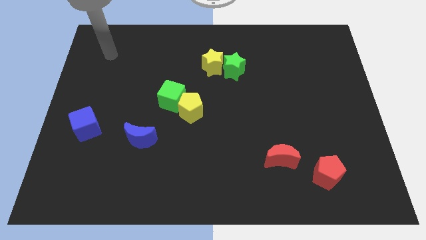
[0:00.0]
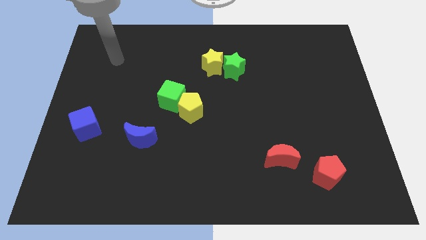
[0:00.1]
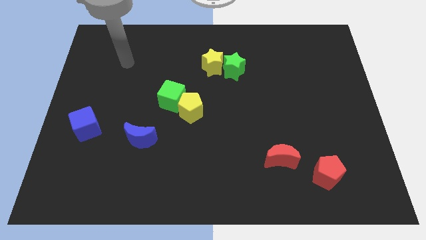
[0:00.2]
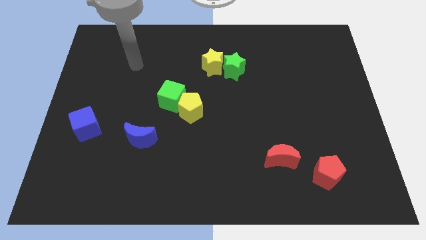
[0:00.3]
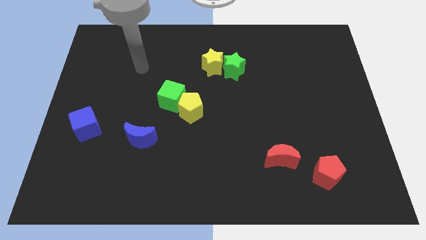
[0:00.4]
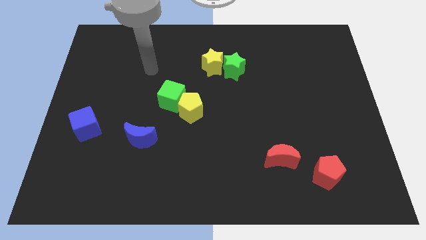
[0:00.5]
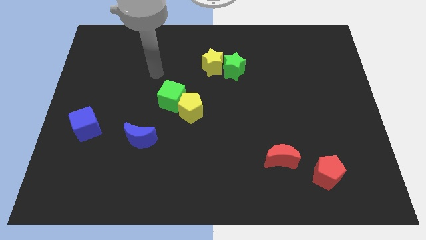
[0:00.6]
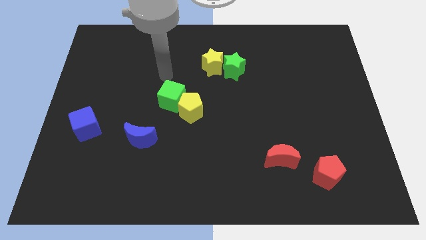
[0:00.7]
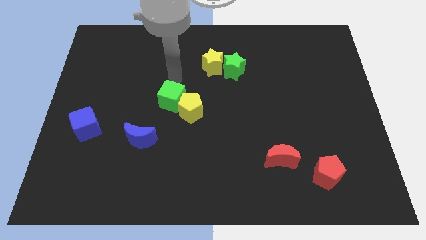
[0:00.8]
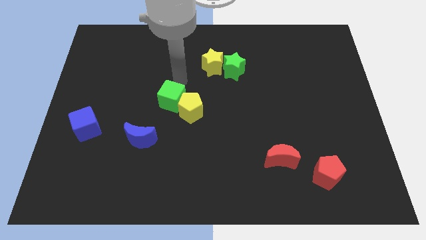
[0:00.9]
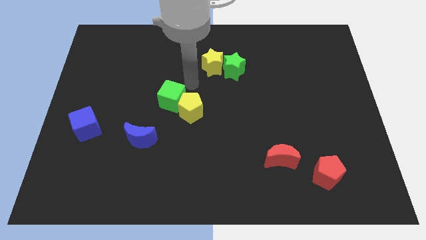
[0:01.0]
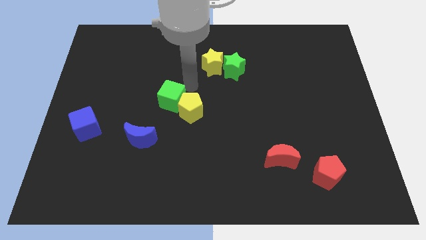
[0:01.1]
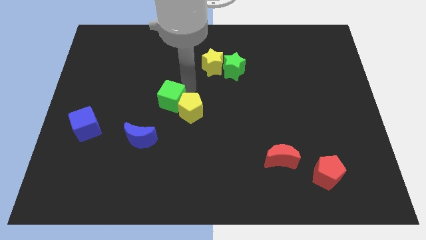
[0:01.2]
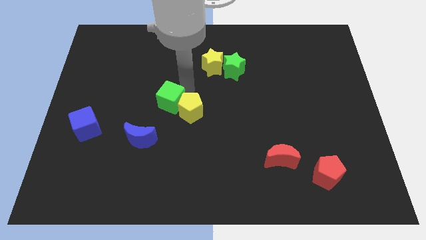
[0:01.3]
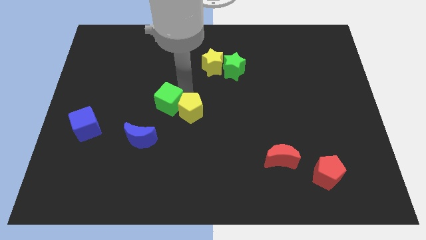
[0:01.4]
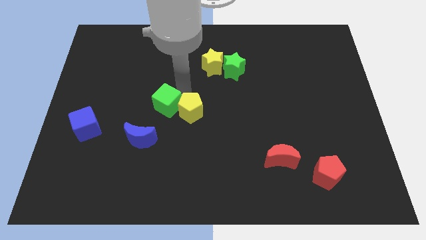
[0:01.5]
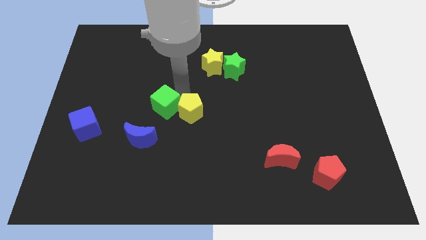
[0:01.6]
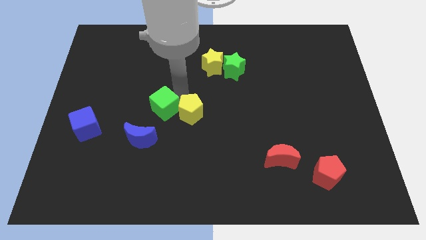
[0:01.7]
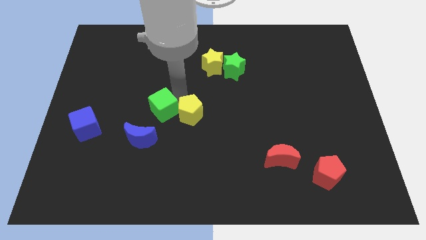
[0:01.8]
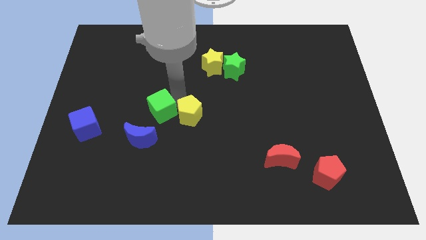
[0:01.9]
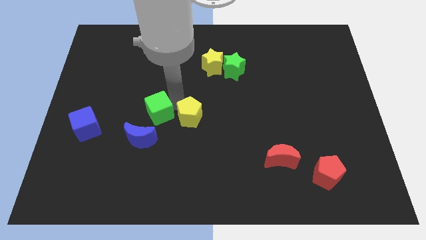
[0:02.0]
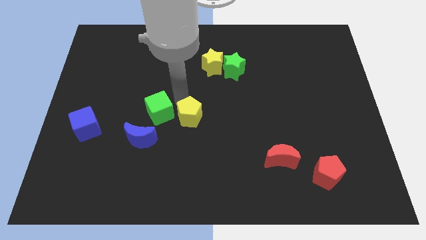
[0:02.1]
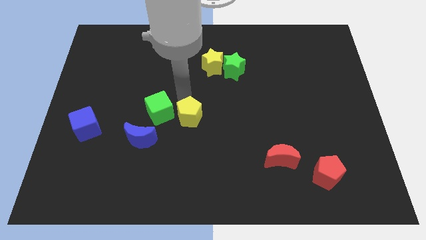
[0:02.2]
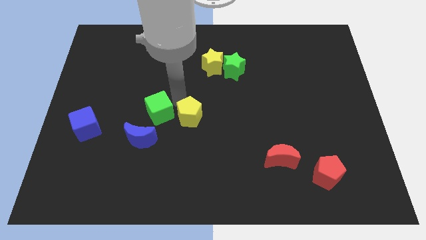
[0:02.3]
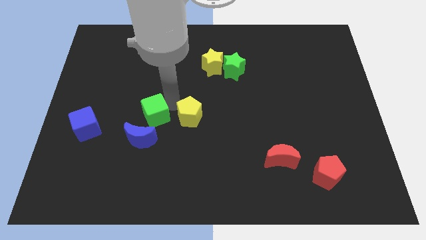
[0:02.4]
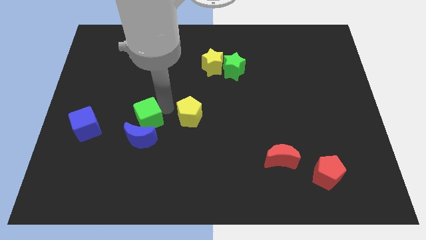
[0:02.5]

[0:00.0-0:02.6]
move the green cube a little down and left

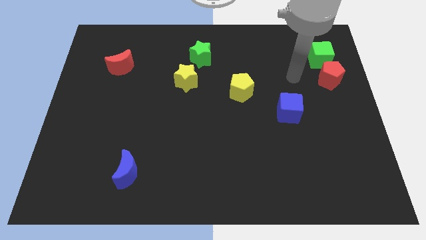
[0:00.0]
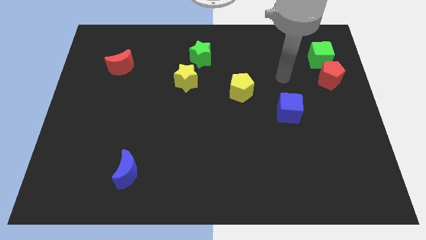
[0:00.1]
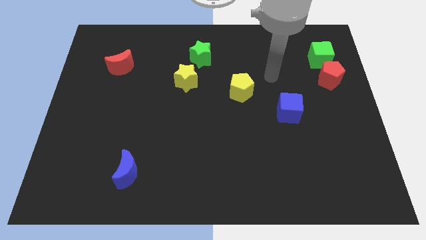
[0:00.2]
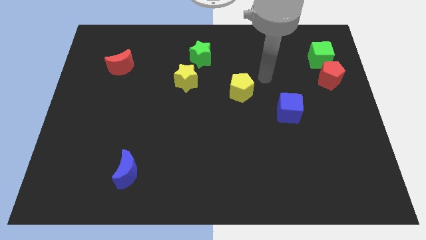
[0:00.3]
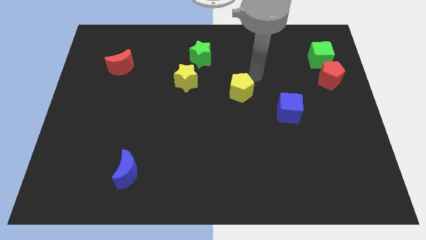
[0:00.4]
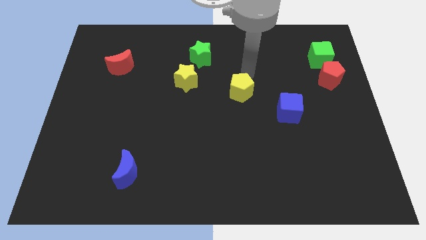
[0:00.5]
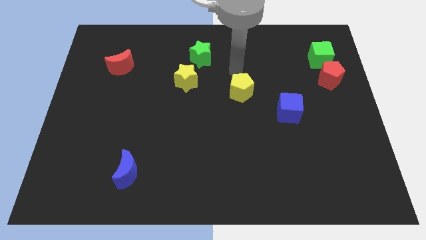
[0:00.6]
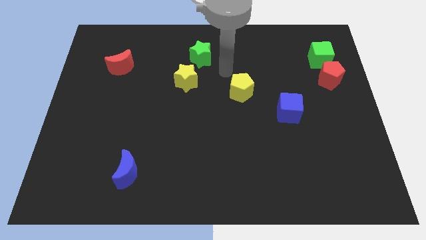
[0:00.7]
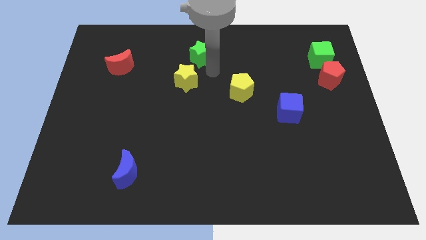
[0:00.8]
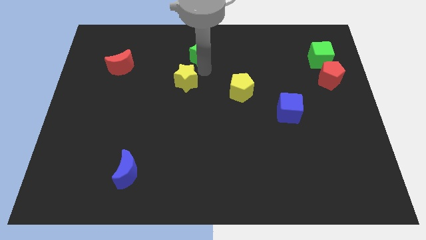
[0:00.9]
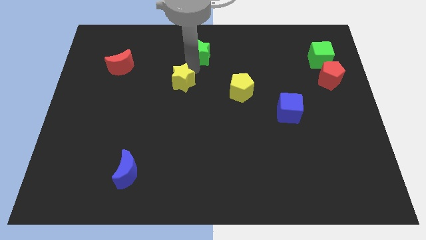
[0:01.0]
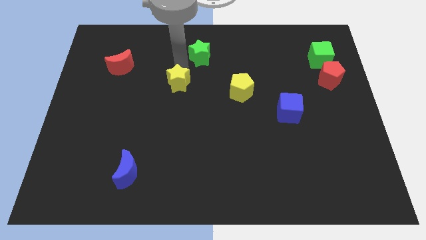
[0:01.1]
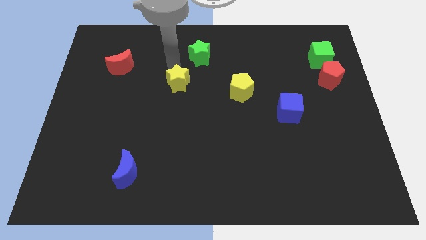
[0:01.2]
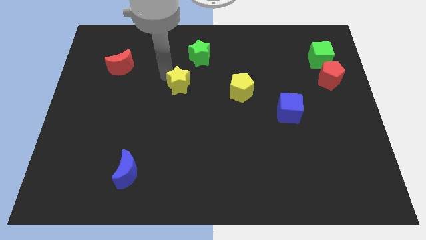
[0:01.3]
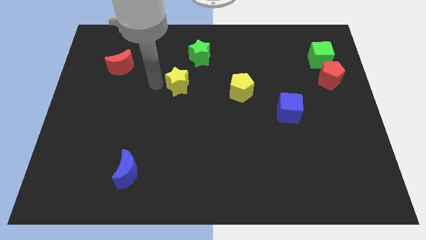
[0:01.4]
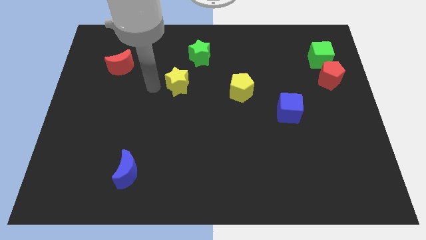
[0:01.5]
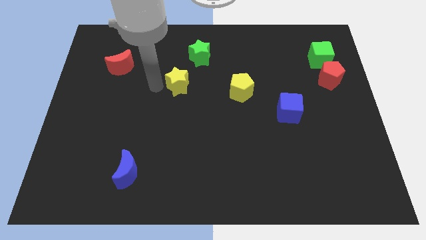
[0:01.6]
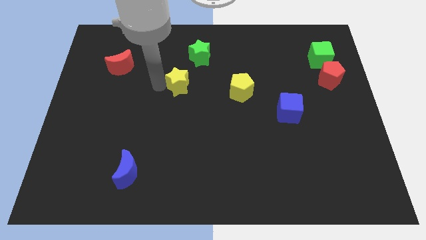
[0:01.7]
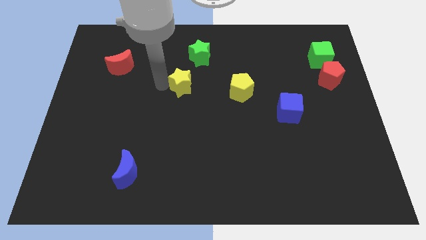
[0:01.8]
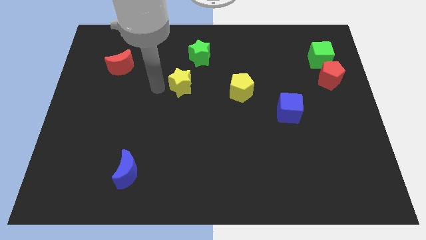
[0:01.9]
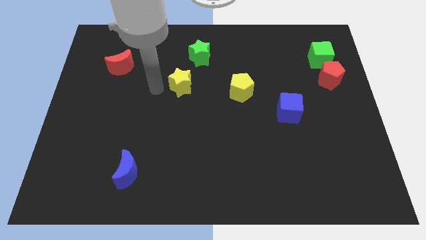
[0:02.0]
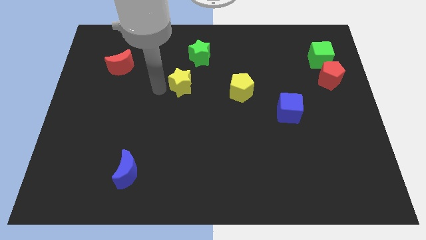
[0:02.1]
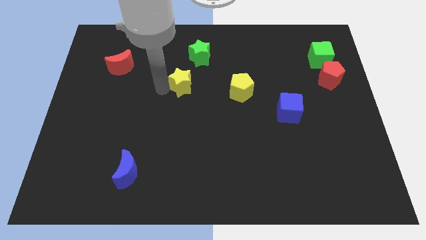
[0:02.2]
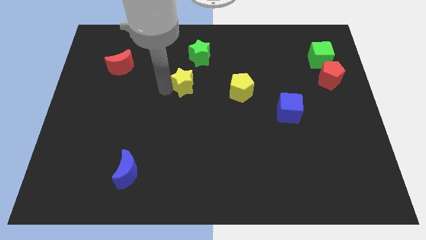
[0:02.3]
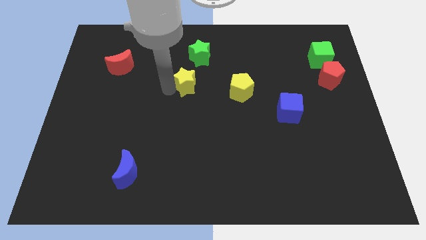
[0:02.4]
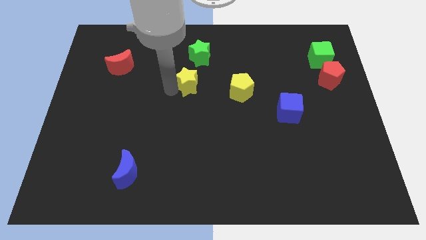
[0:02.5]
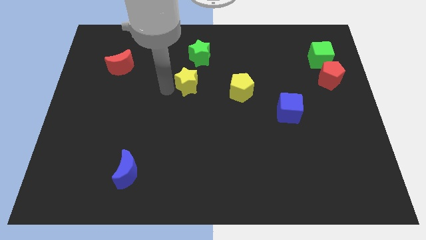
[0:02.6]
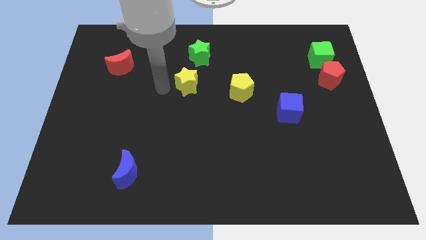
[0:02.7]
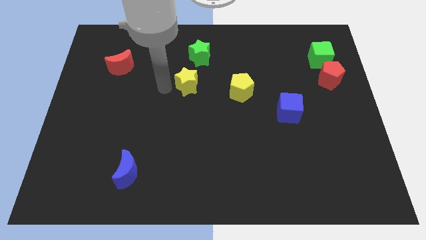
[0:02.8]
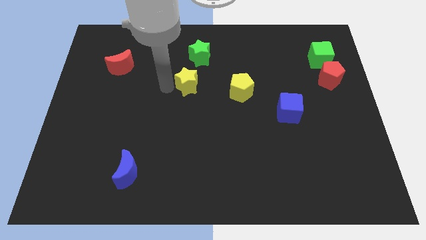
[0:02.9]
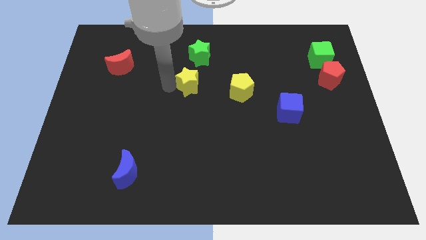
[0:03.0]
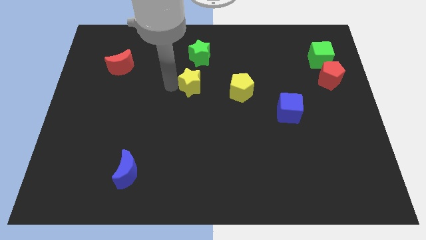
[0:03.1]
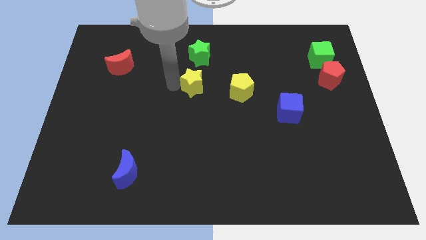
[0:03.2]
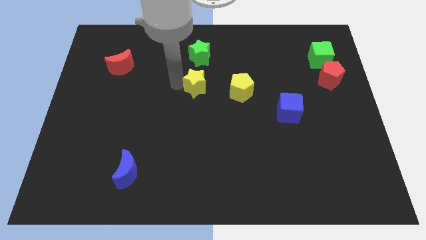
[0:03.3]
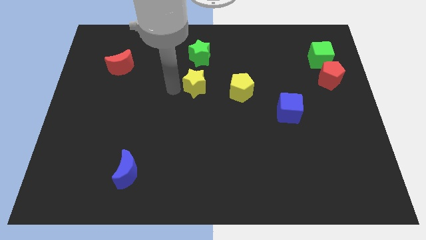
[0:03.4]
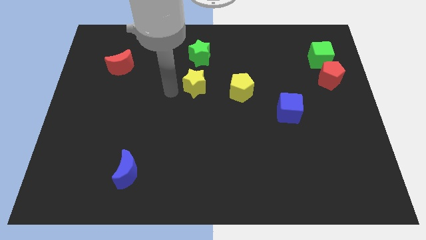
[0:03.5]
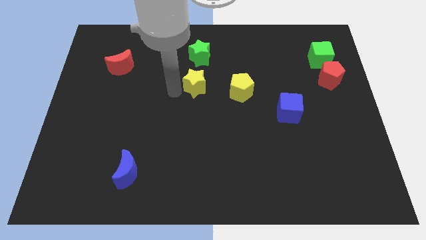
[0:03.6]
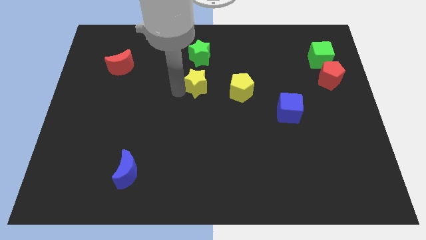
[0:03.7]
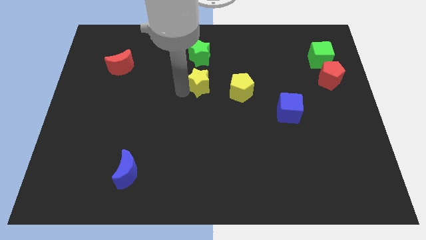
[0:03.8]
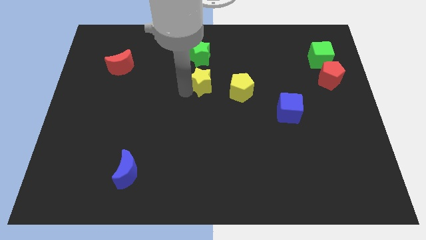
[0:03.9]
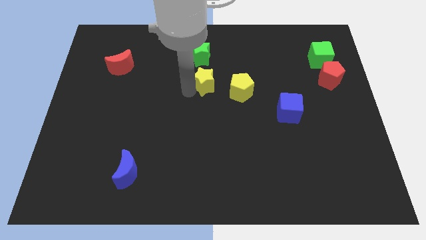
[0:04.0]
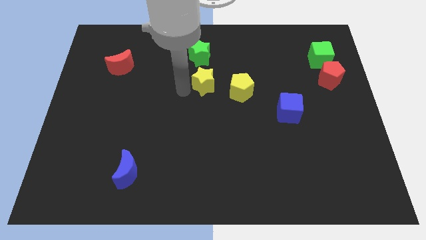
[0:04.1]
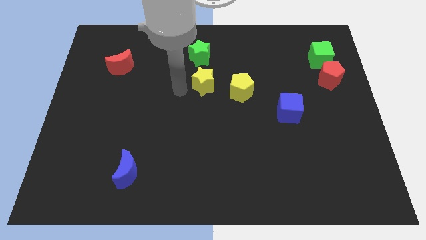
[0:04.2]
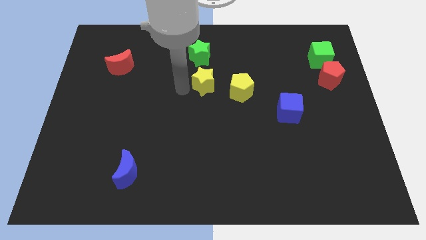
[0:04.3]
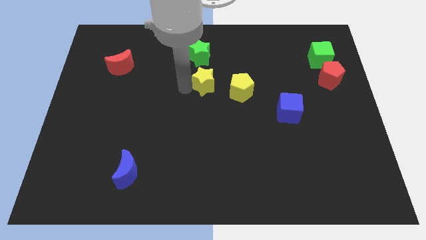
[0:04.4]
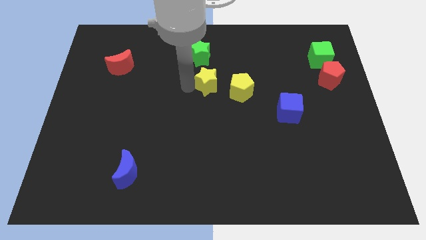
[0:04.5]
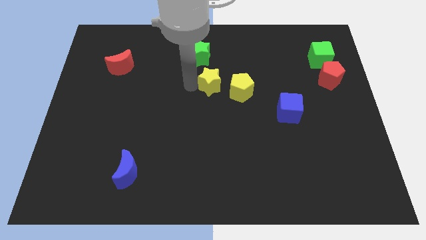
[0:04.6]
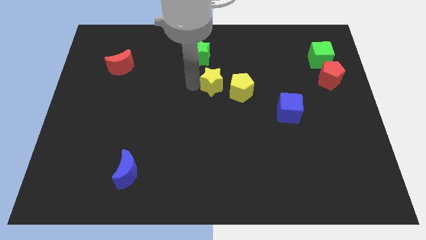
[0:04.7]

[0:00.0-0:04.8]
push the yellow star right a little bit

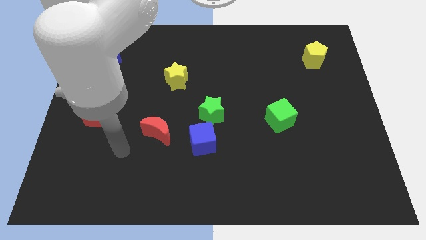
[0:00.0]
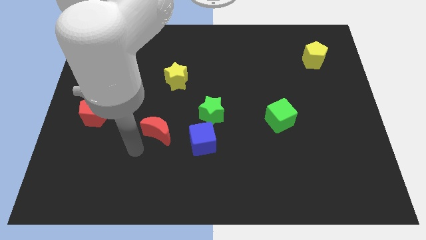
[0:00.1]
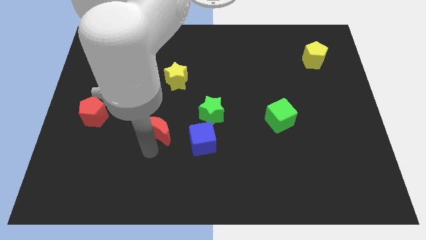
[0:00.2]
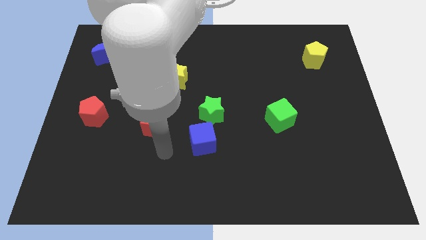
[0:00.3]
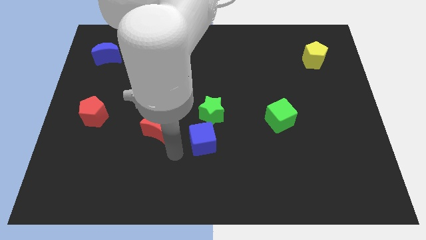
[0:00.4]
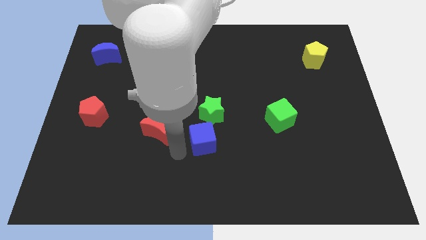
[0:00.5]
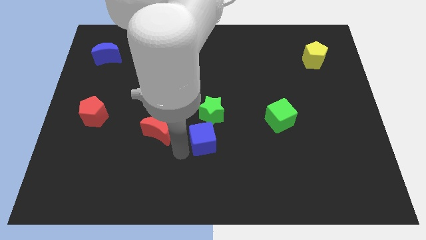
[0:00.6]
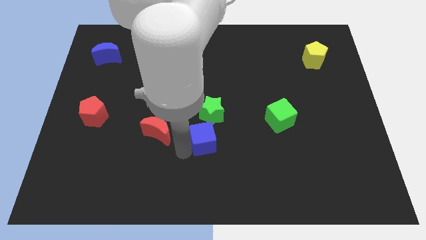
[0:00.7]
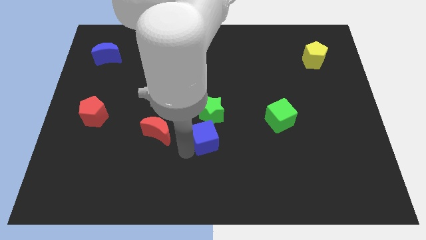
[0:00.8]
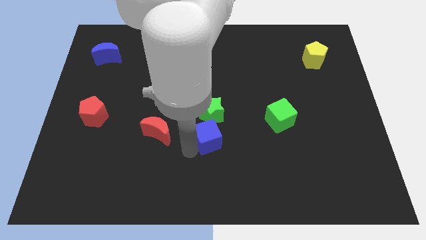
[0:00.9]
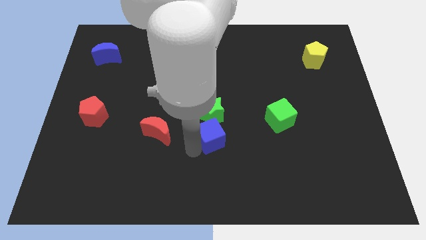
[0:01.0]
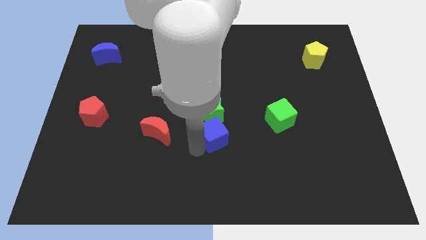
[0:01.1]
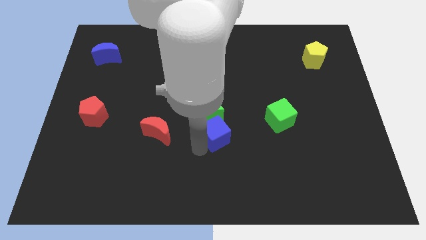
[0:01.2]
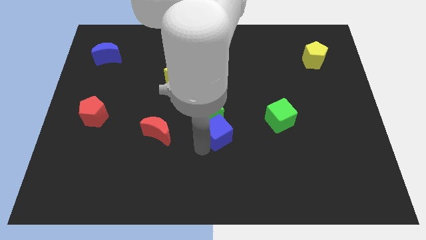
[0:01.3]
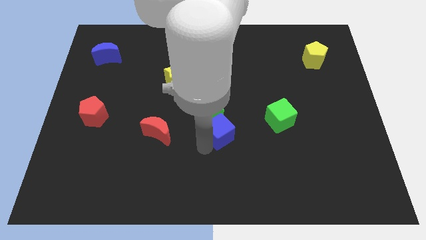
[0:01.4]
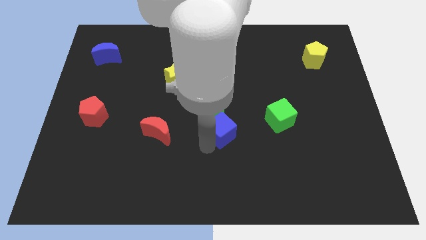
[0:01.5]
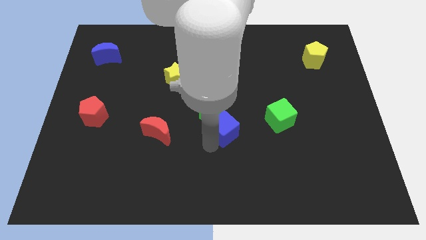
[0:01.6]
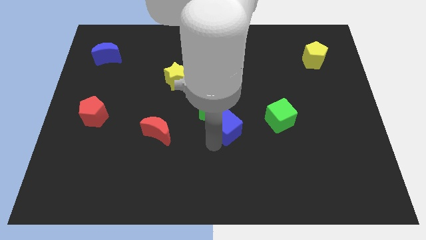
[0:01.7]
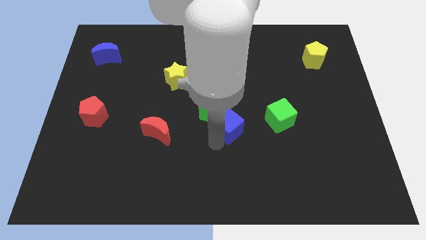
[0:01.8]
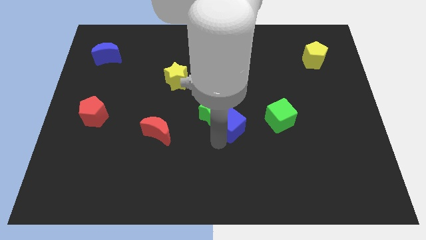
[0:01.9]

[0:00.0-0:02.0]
slide the blue cube up and then right a little
